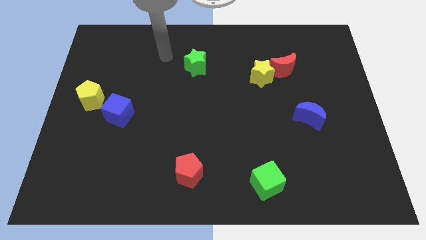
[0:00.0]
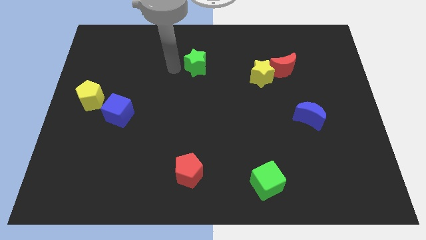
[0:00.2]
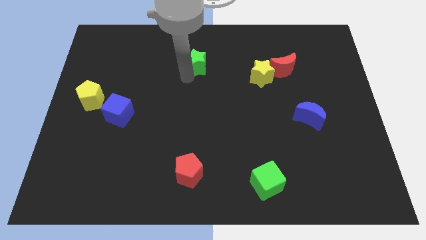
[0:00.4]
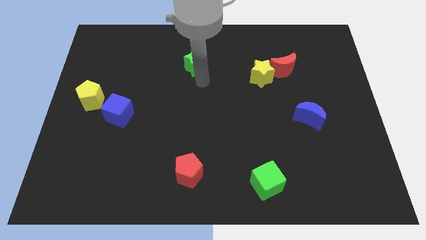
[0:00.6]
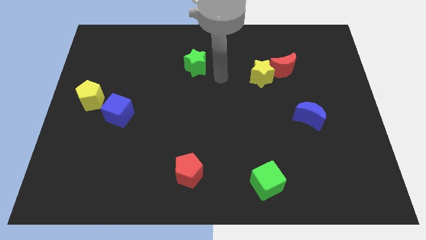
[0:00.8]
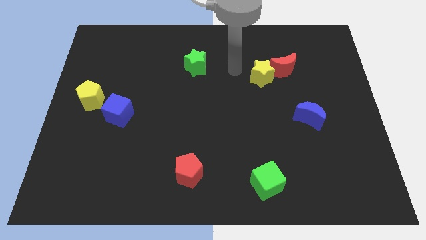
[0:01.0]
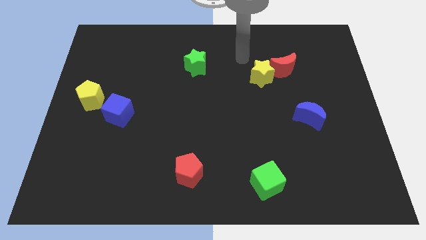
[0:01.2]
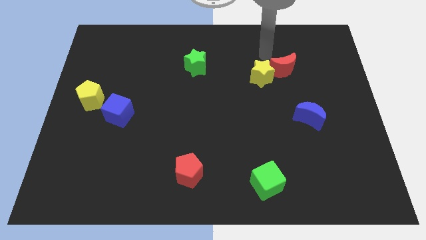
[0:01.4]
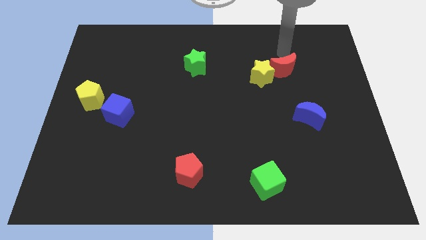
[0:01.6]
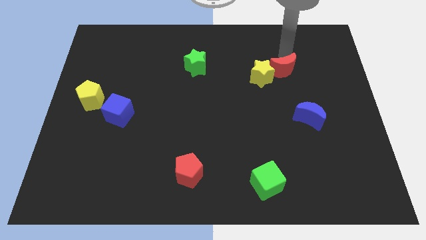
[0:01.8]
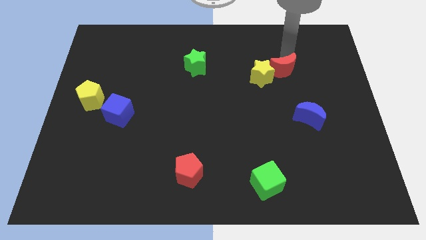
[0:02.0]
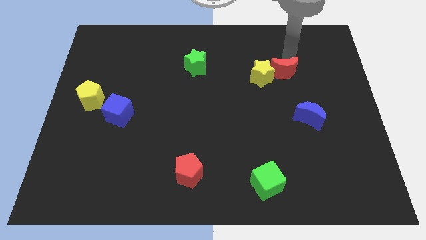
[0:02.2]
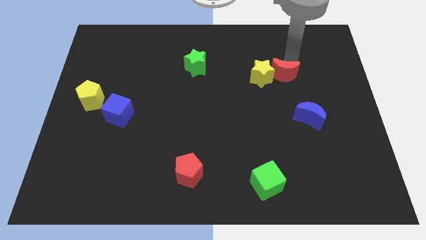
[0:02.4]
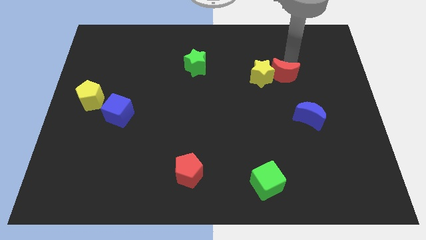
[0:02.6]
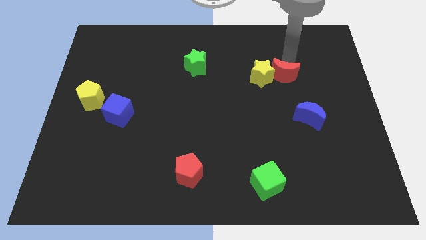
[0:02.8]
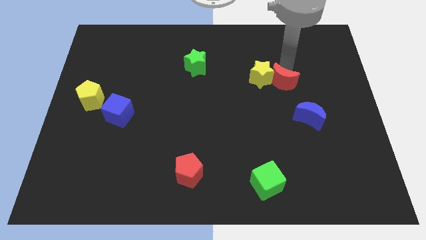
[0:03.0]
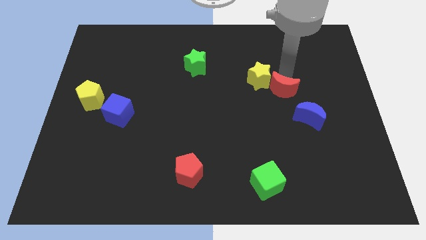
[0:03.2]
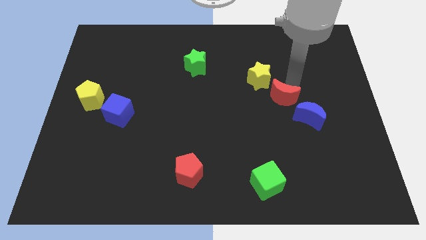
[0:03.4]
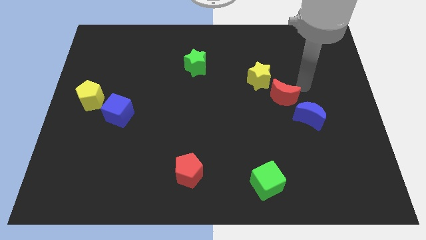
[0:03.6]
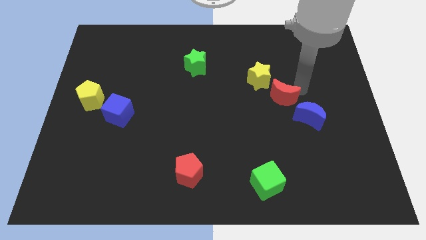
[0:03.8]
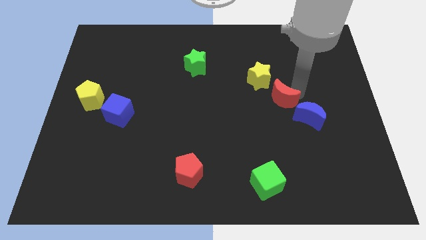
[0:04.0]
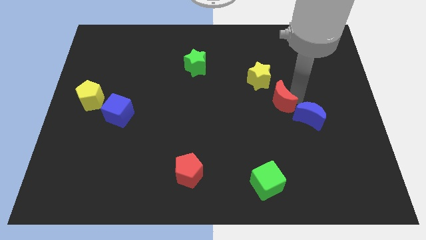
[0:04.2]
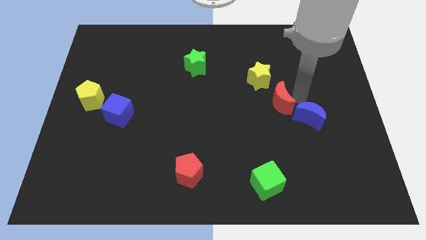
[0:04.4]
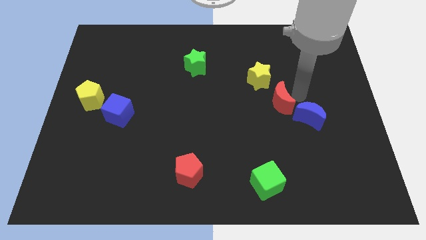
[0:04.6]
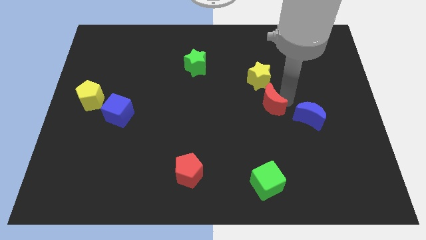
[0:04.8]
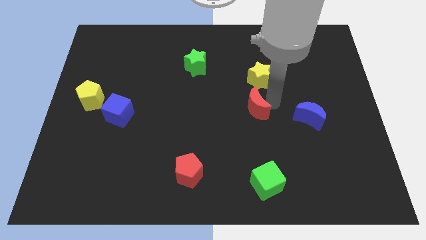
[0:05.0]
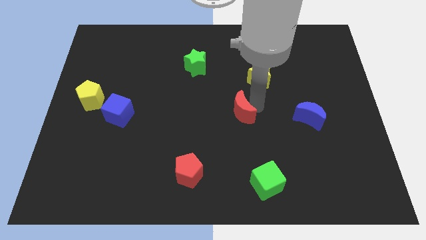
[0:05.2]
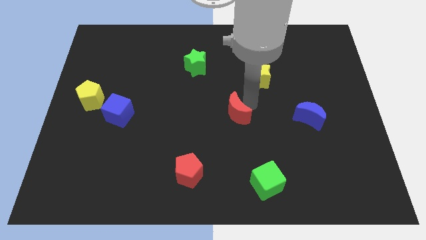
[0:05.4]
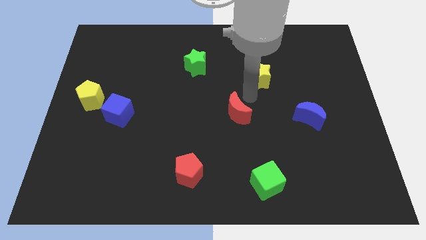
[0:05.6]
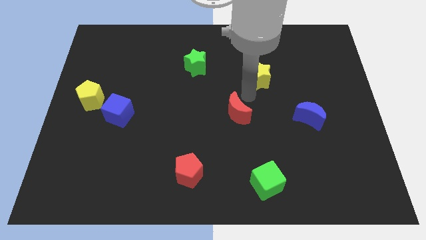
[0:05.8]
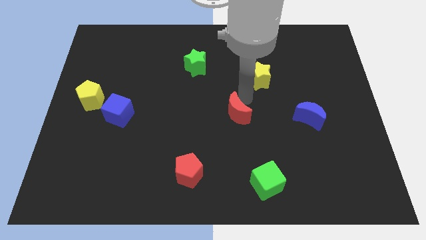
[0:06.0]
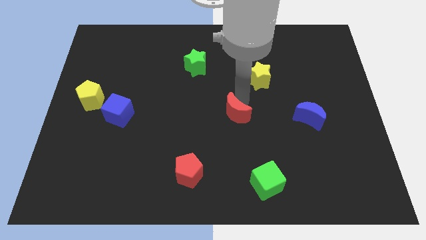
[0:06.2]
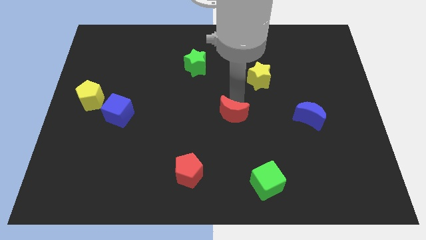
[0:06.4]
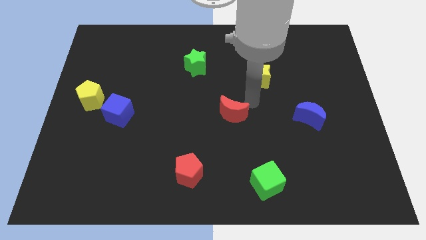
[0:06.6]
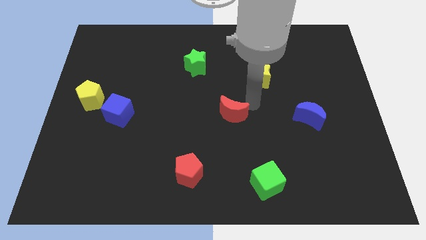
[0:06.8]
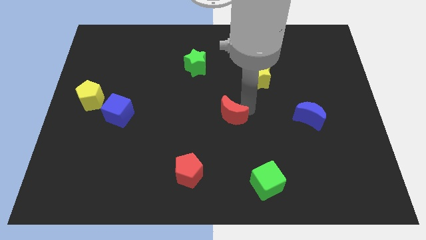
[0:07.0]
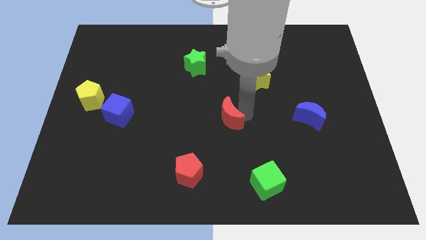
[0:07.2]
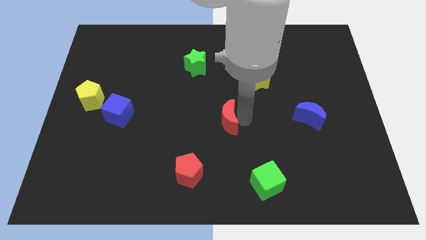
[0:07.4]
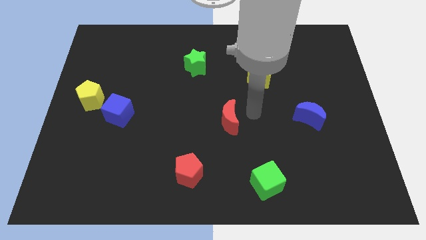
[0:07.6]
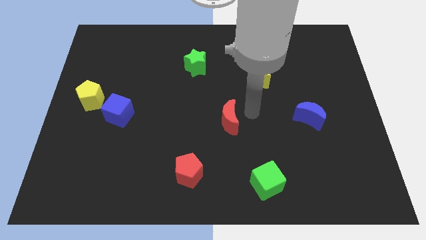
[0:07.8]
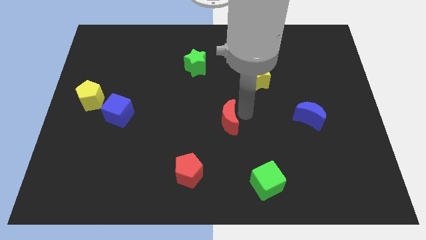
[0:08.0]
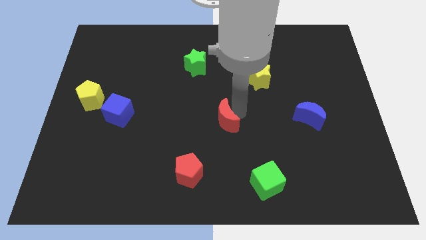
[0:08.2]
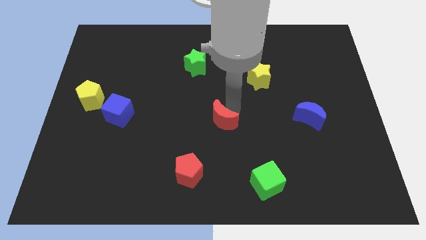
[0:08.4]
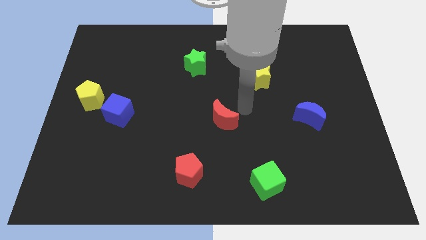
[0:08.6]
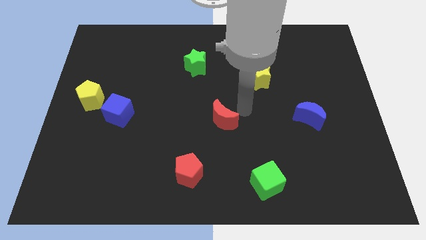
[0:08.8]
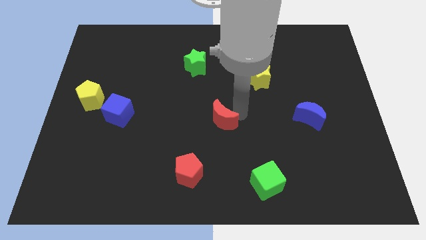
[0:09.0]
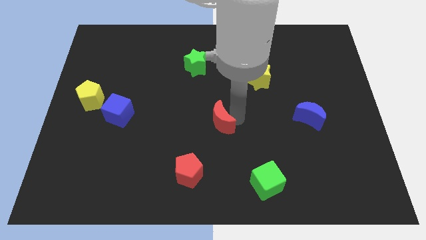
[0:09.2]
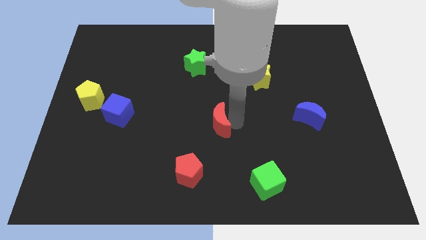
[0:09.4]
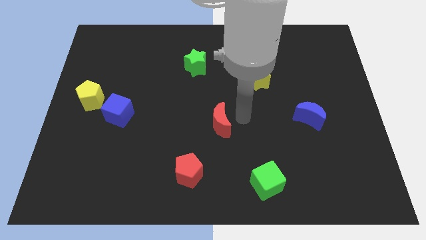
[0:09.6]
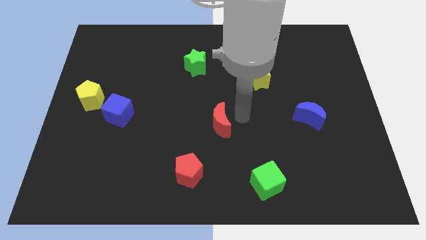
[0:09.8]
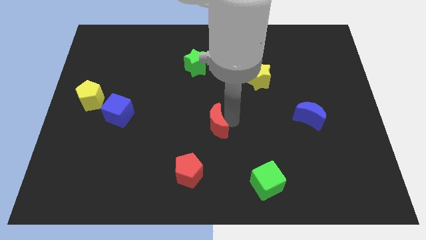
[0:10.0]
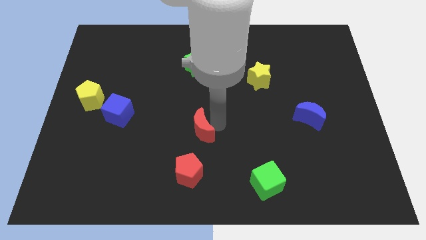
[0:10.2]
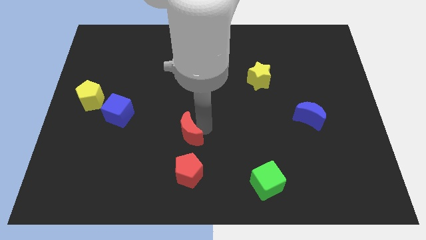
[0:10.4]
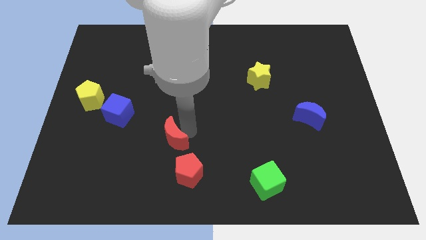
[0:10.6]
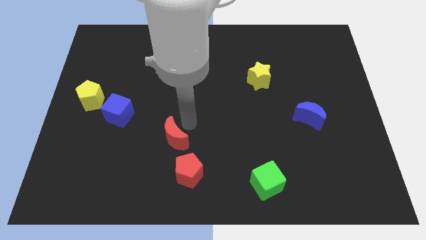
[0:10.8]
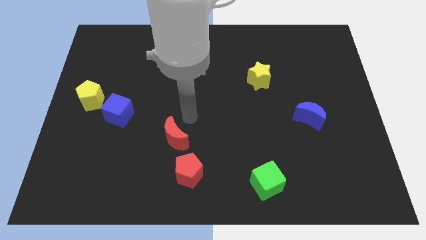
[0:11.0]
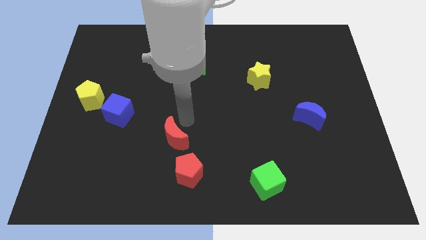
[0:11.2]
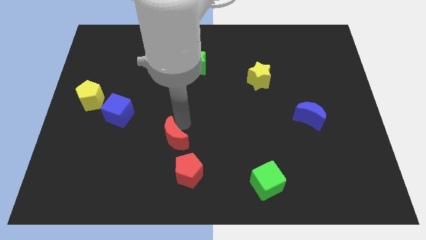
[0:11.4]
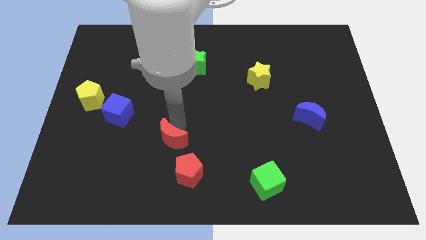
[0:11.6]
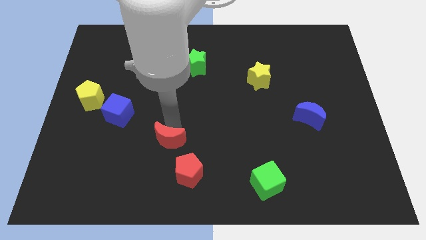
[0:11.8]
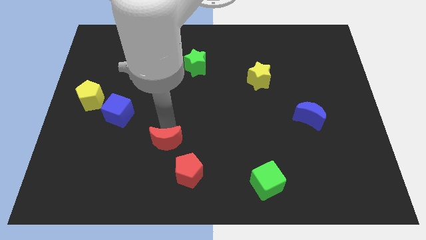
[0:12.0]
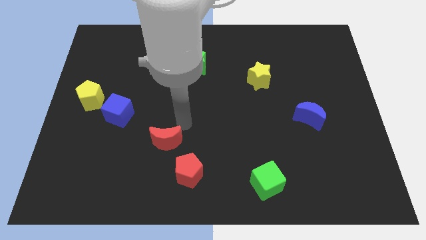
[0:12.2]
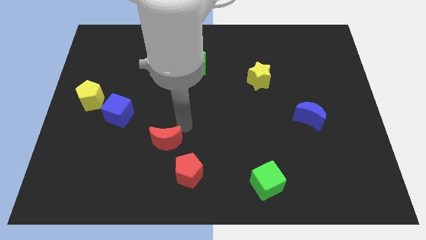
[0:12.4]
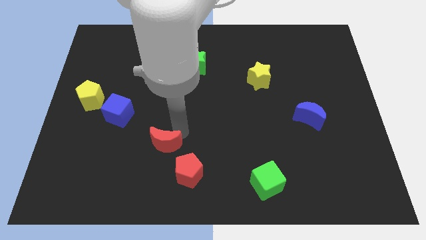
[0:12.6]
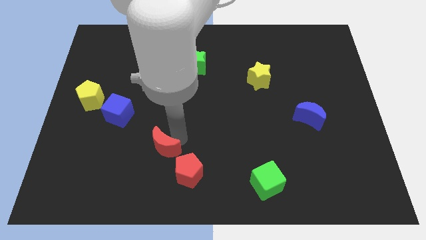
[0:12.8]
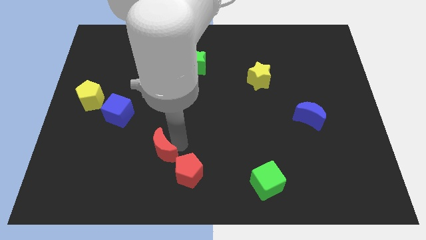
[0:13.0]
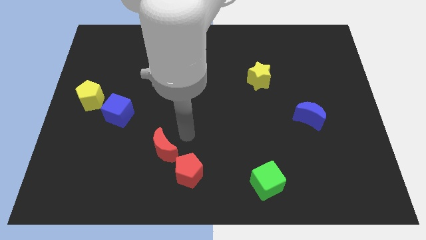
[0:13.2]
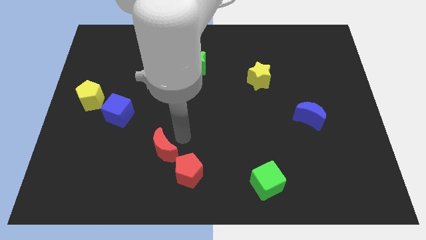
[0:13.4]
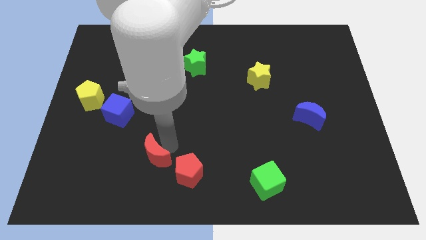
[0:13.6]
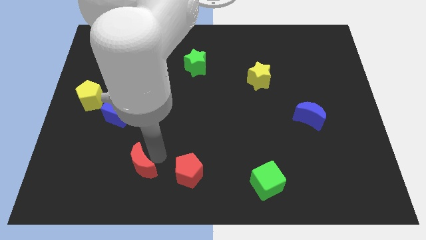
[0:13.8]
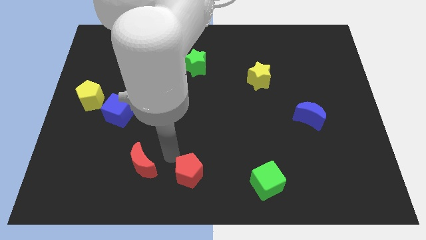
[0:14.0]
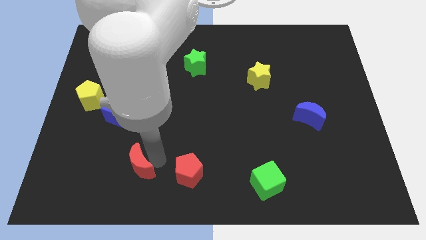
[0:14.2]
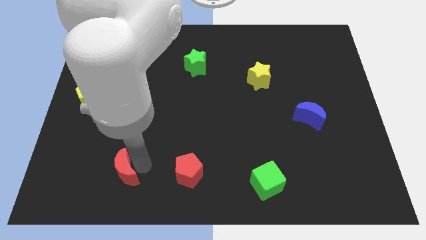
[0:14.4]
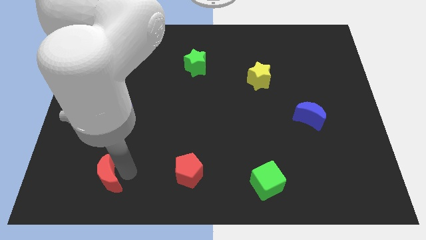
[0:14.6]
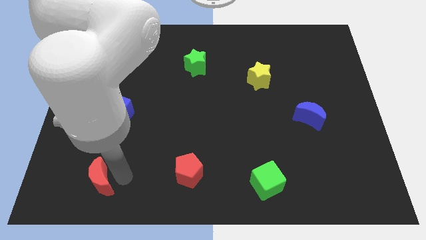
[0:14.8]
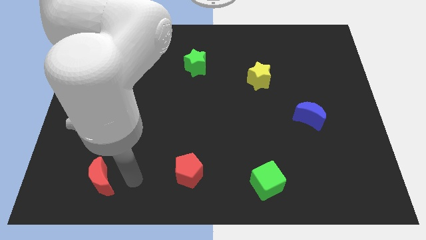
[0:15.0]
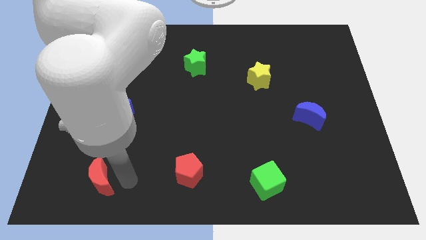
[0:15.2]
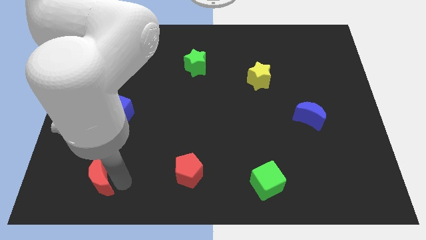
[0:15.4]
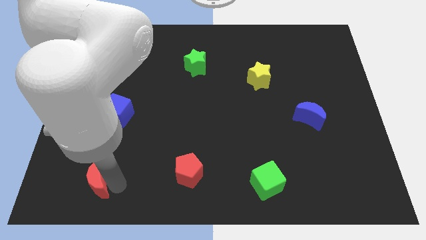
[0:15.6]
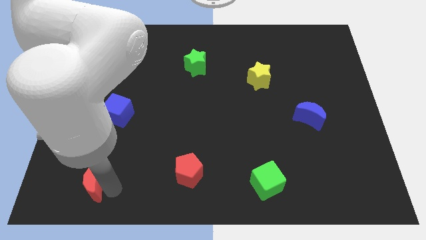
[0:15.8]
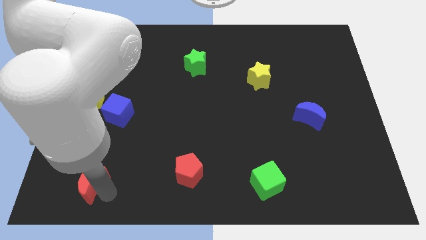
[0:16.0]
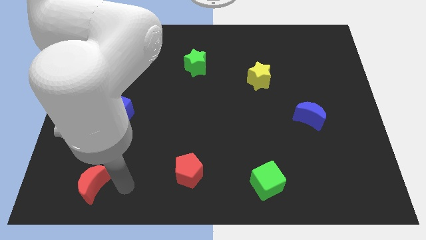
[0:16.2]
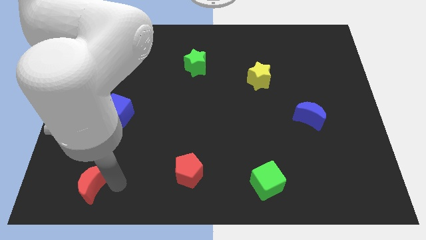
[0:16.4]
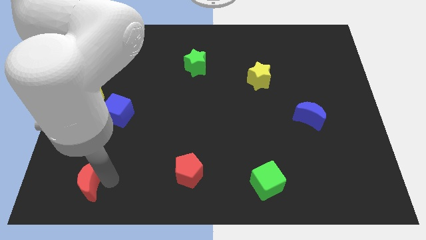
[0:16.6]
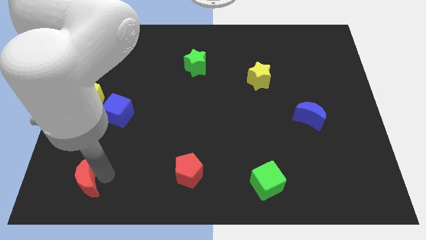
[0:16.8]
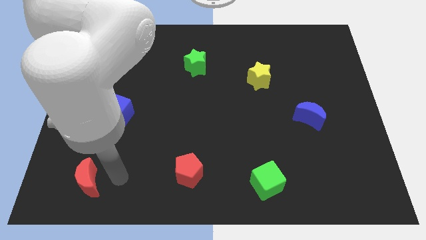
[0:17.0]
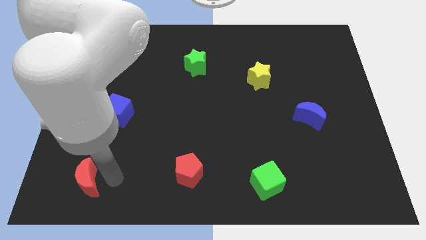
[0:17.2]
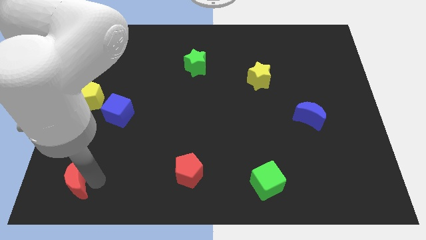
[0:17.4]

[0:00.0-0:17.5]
move the red moon to the bottom left of the board
